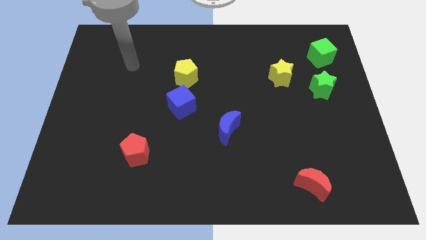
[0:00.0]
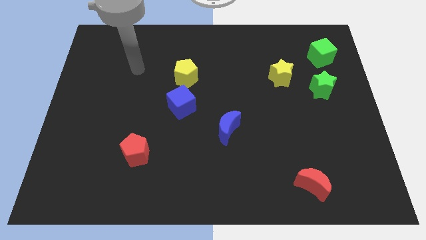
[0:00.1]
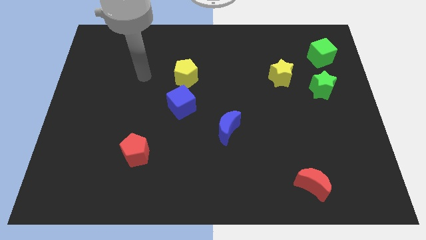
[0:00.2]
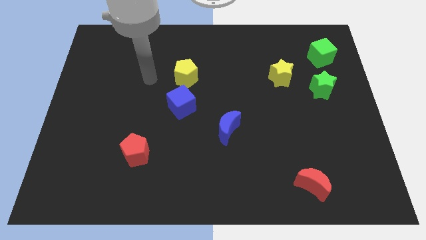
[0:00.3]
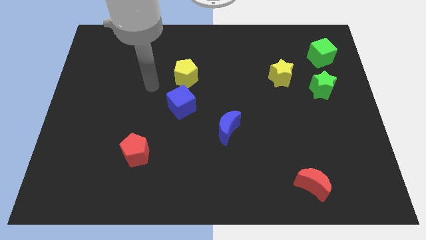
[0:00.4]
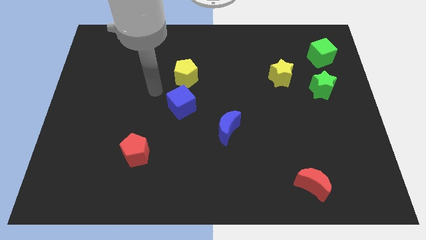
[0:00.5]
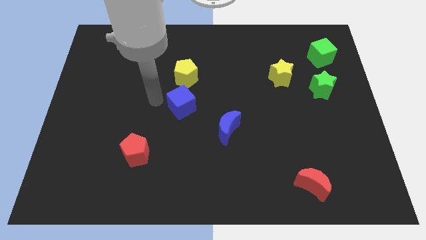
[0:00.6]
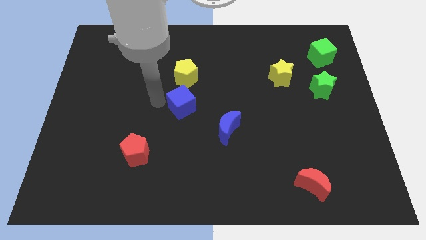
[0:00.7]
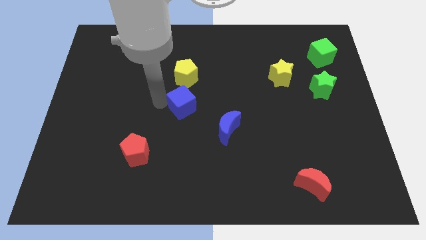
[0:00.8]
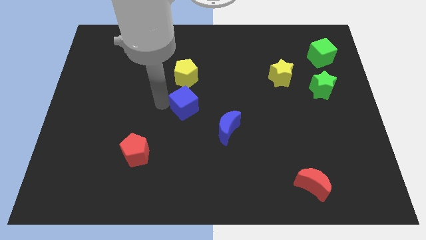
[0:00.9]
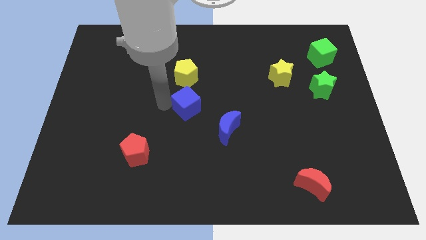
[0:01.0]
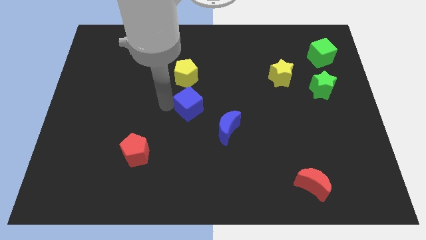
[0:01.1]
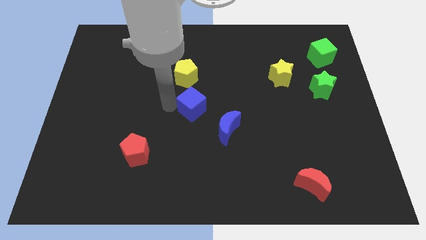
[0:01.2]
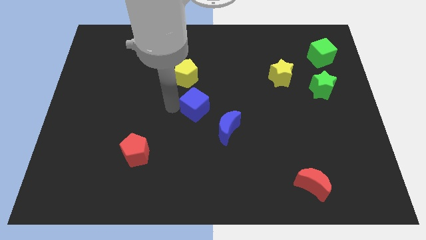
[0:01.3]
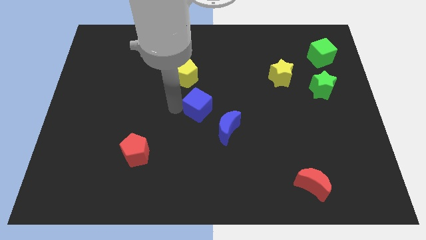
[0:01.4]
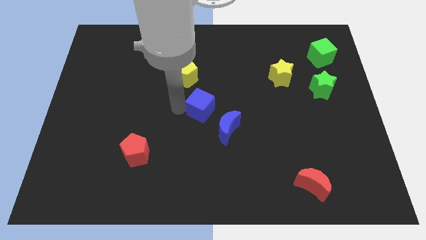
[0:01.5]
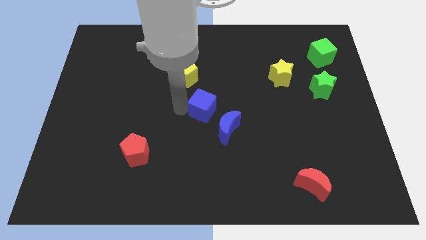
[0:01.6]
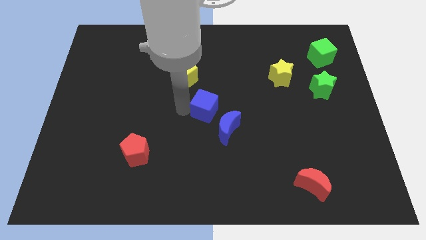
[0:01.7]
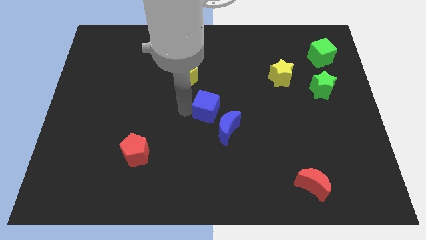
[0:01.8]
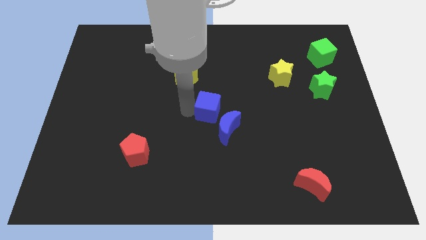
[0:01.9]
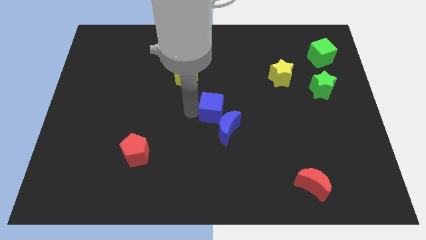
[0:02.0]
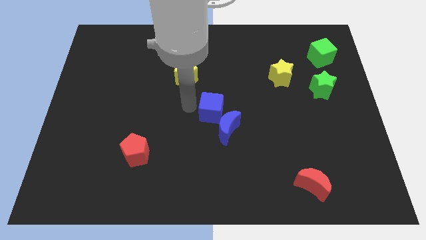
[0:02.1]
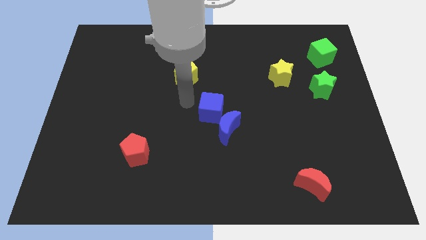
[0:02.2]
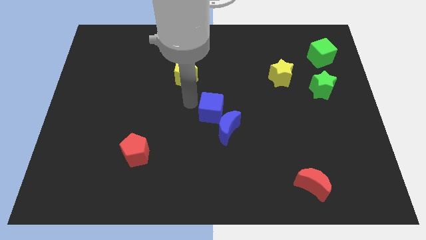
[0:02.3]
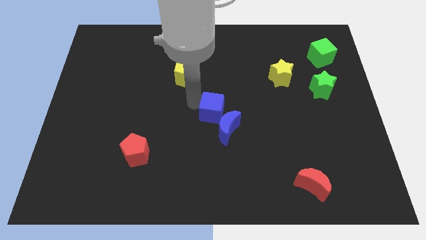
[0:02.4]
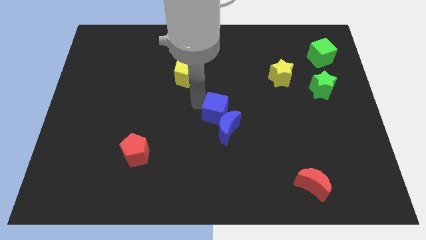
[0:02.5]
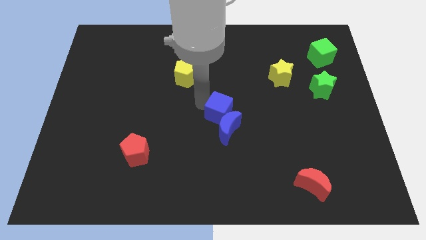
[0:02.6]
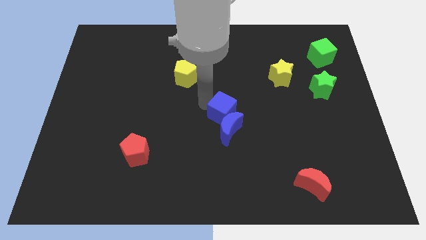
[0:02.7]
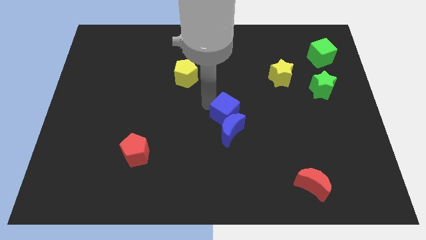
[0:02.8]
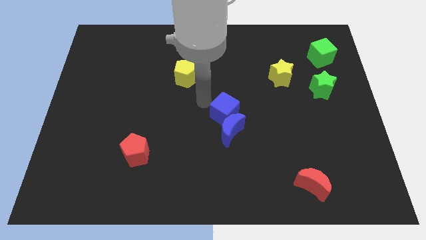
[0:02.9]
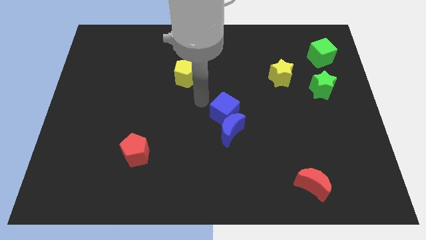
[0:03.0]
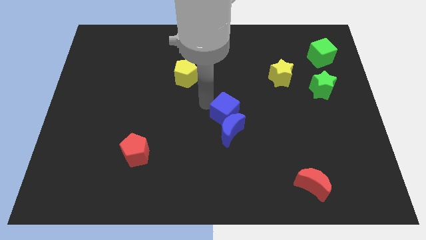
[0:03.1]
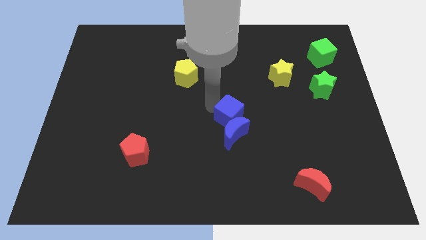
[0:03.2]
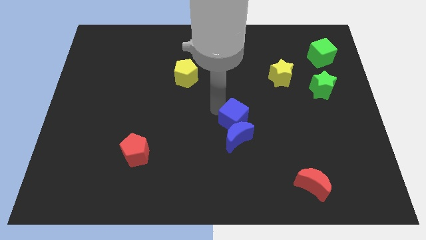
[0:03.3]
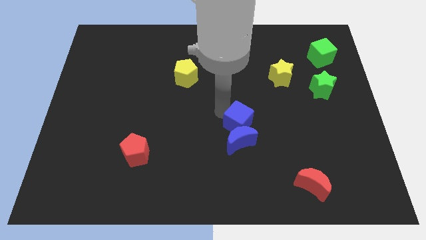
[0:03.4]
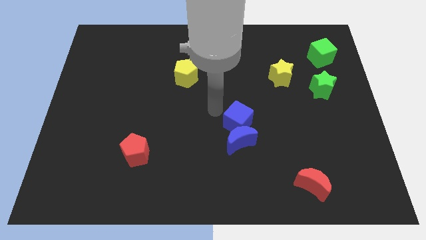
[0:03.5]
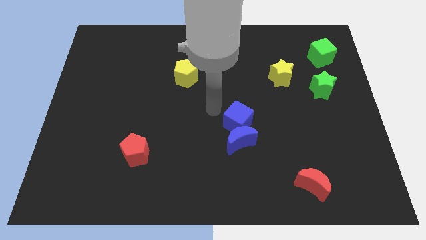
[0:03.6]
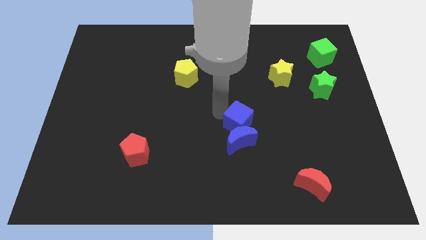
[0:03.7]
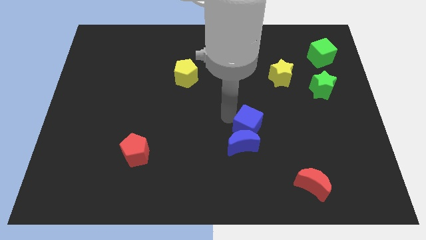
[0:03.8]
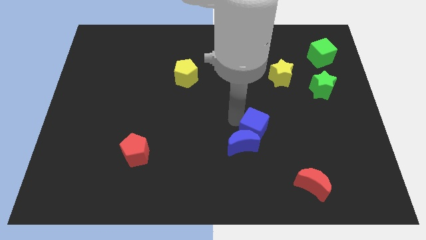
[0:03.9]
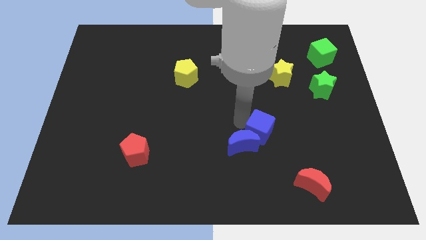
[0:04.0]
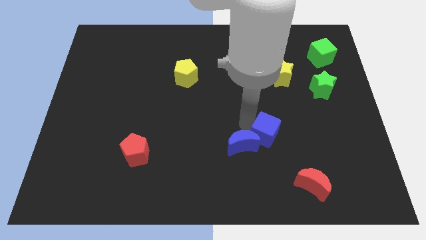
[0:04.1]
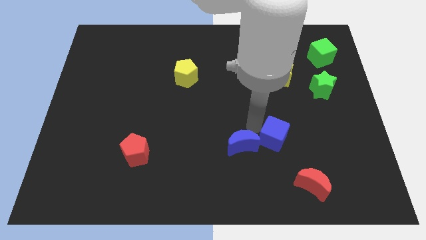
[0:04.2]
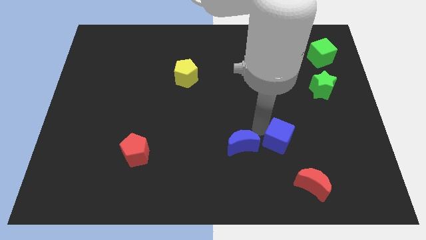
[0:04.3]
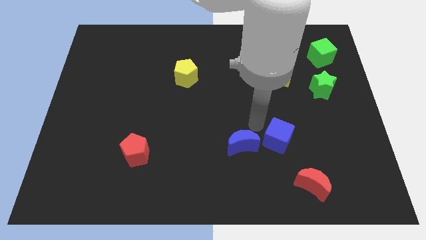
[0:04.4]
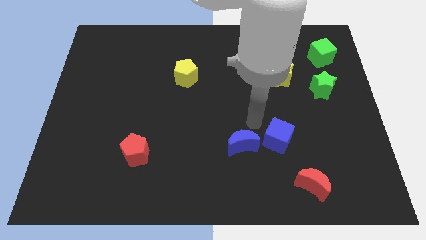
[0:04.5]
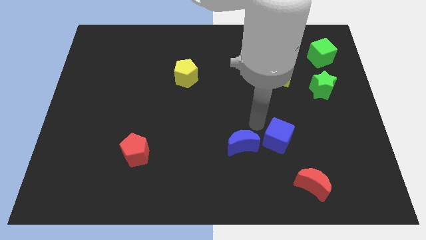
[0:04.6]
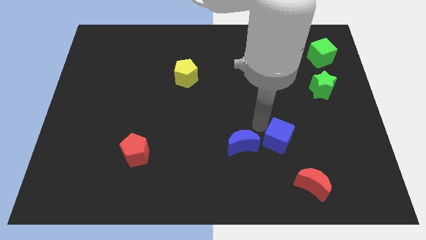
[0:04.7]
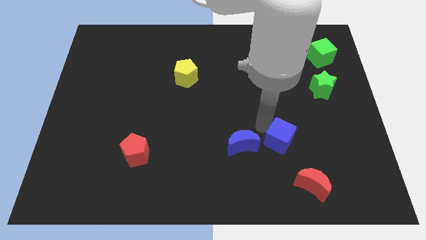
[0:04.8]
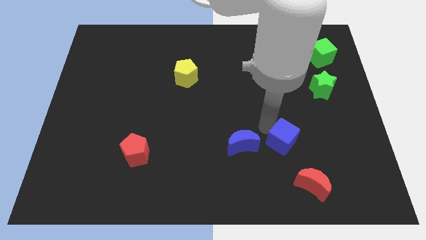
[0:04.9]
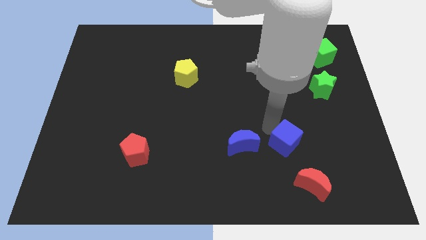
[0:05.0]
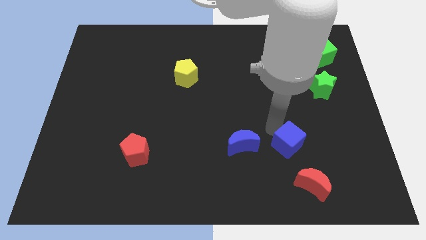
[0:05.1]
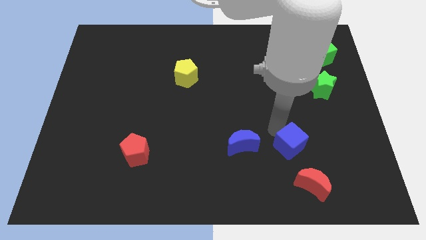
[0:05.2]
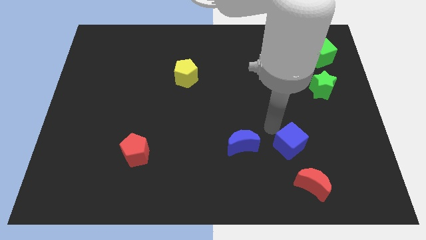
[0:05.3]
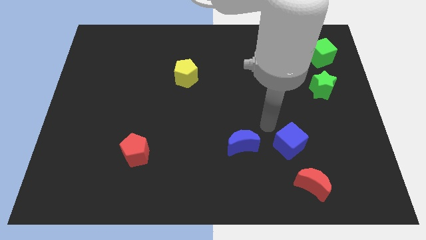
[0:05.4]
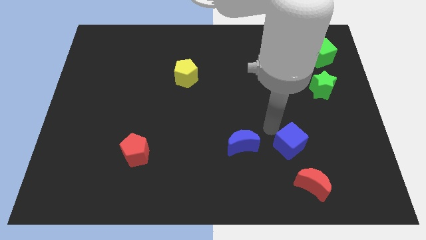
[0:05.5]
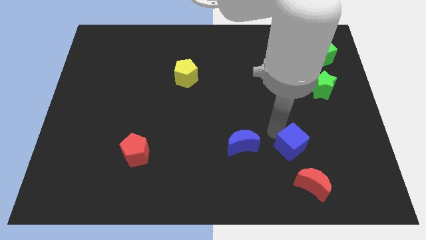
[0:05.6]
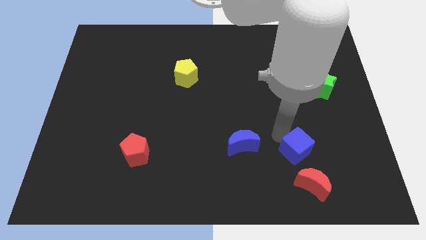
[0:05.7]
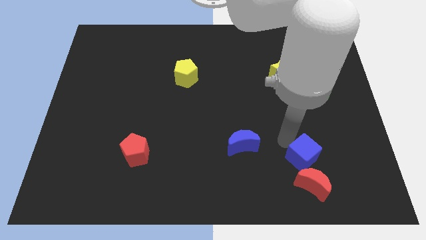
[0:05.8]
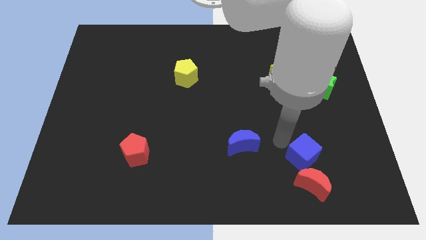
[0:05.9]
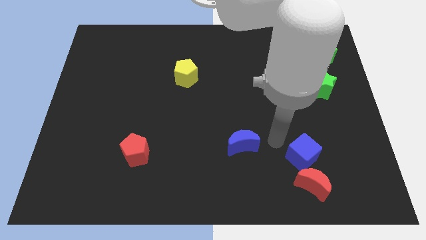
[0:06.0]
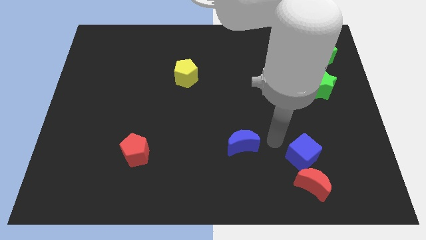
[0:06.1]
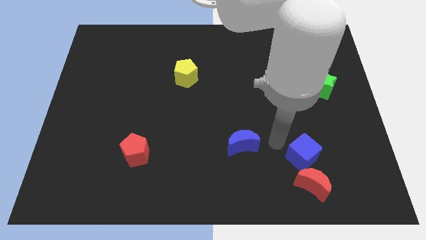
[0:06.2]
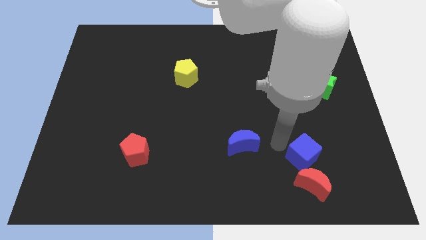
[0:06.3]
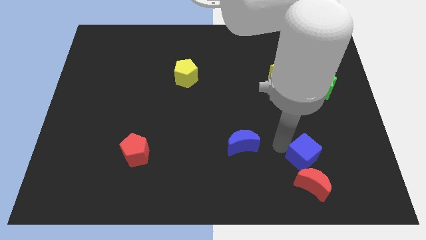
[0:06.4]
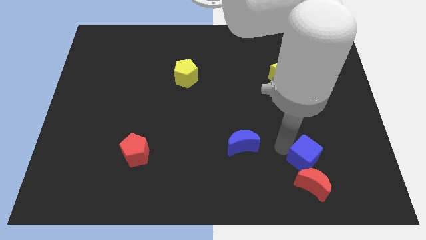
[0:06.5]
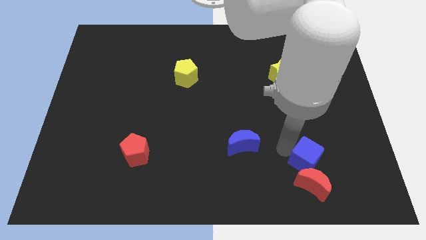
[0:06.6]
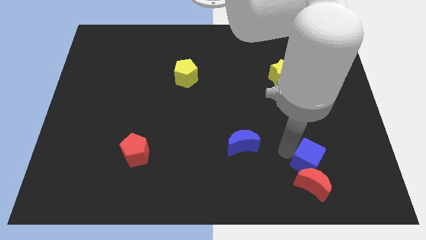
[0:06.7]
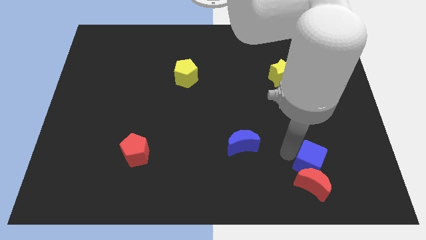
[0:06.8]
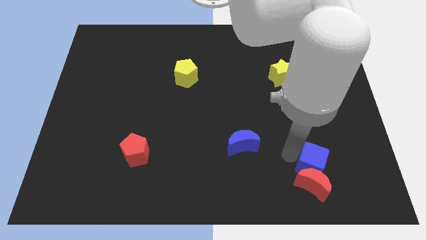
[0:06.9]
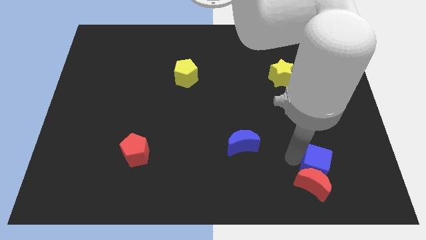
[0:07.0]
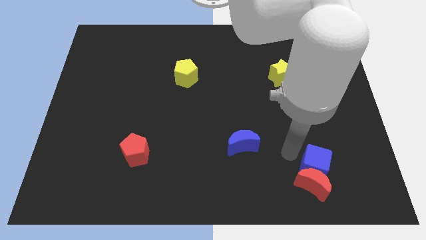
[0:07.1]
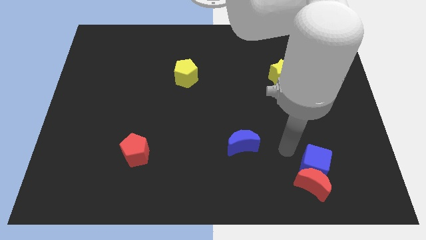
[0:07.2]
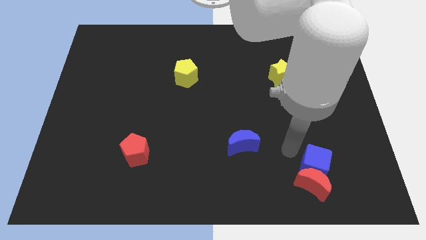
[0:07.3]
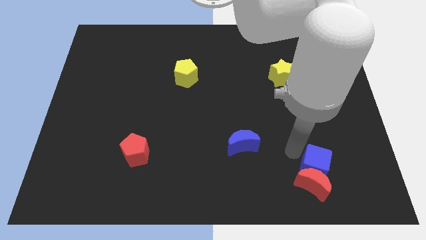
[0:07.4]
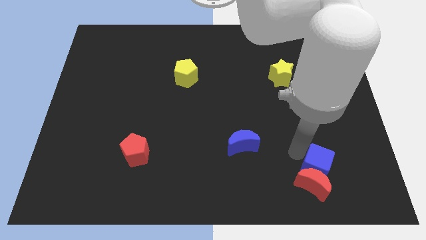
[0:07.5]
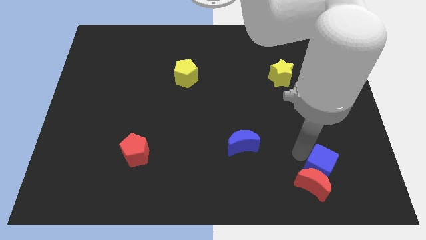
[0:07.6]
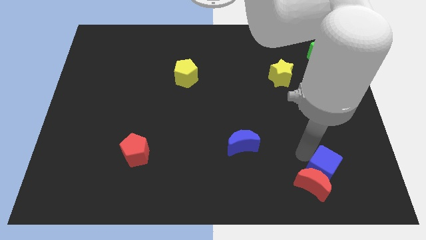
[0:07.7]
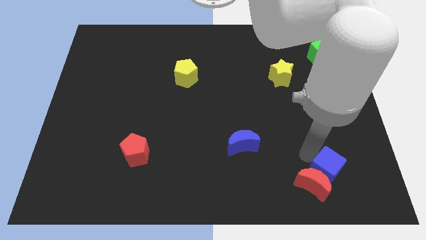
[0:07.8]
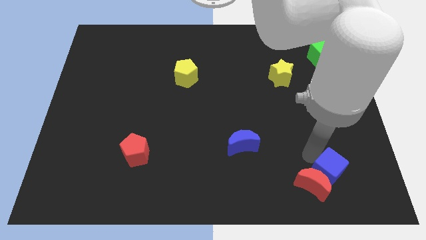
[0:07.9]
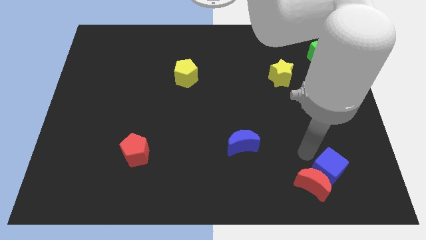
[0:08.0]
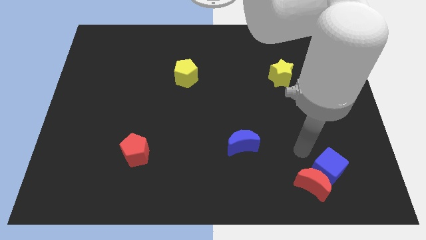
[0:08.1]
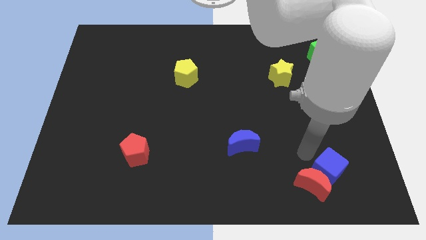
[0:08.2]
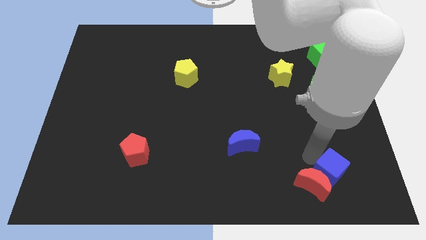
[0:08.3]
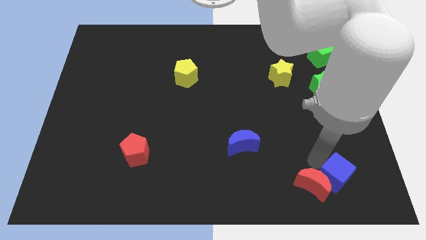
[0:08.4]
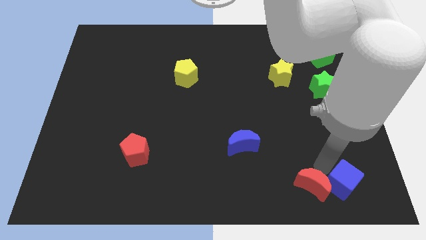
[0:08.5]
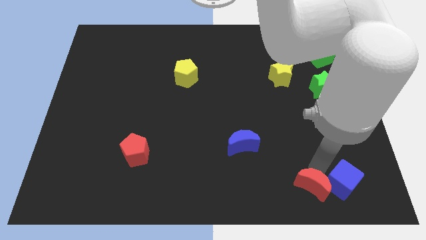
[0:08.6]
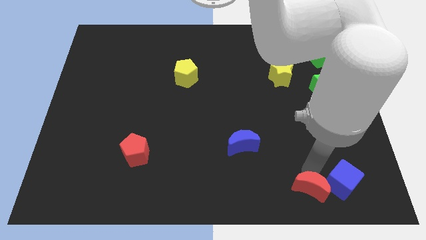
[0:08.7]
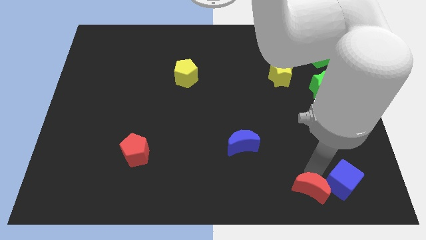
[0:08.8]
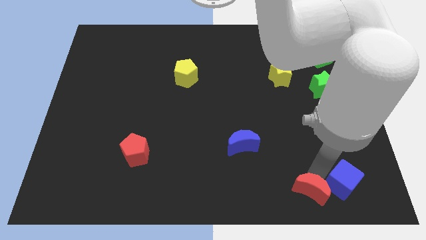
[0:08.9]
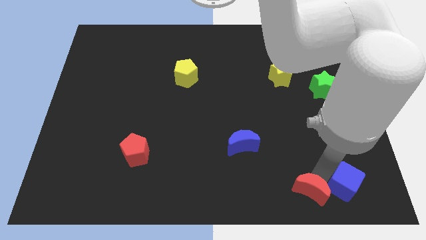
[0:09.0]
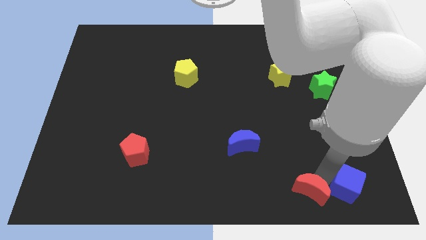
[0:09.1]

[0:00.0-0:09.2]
move the blue cube to the lower right corner
